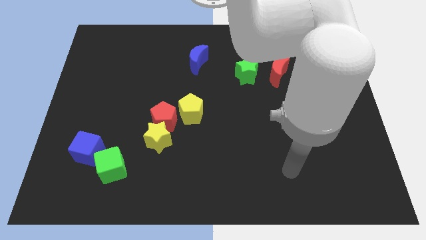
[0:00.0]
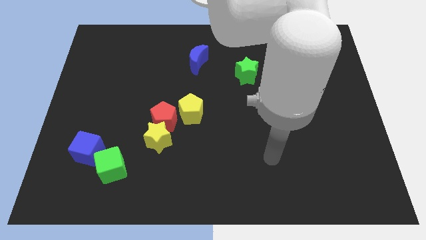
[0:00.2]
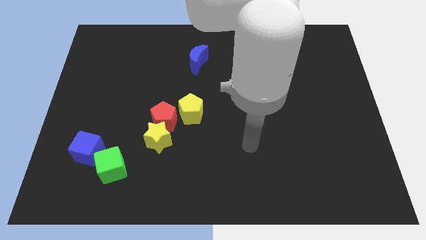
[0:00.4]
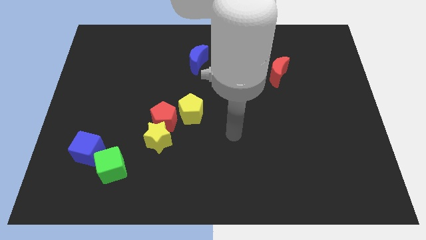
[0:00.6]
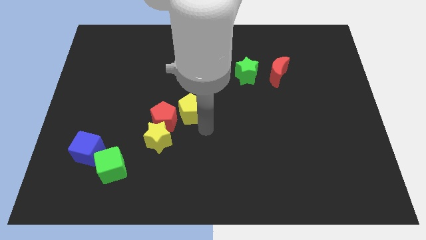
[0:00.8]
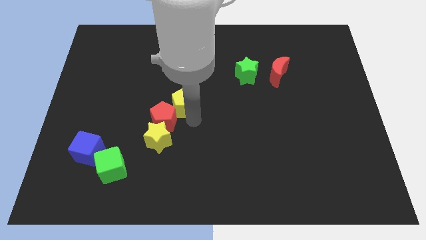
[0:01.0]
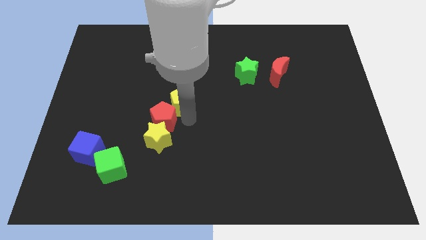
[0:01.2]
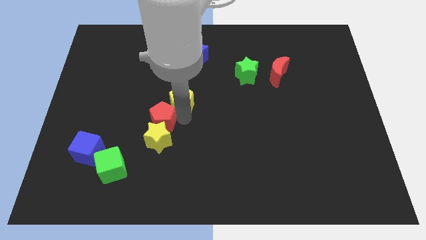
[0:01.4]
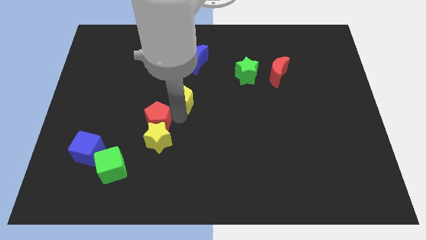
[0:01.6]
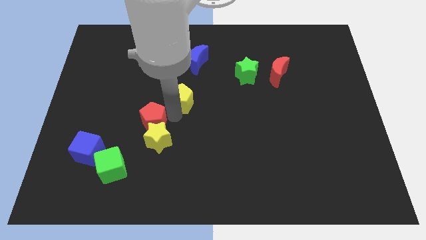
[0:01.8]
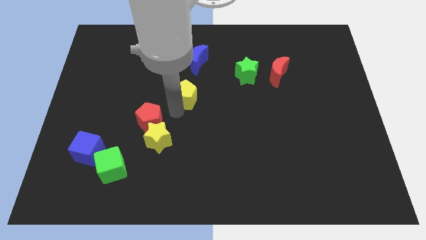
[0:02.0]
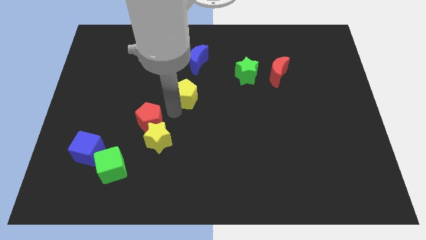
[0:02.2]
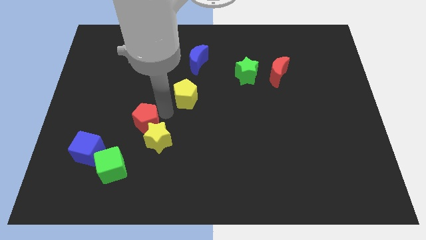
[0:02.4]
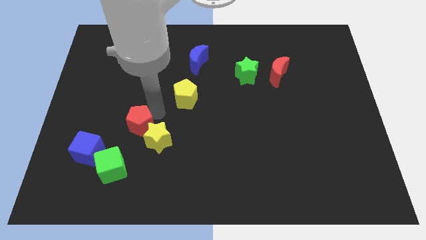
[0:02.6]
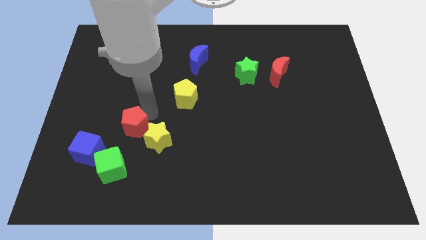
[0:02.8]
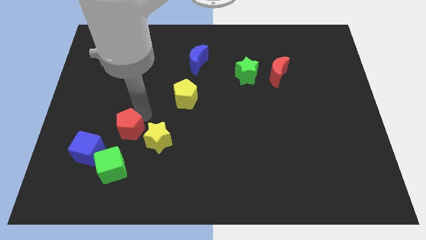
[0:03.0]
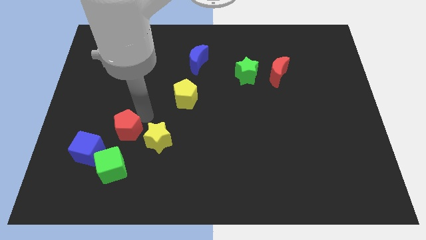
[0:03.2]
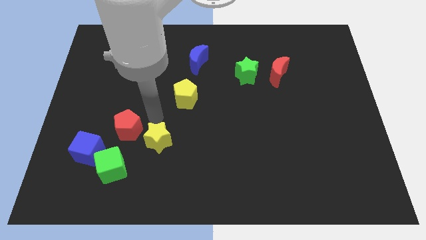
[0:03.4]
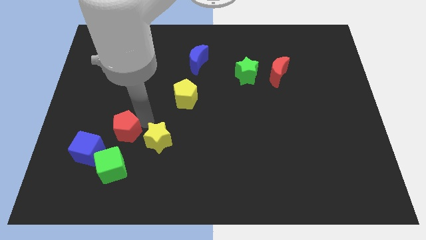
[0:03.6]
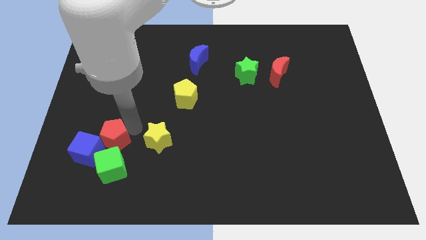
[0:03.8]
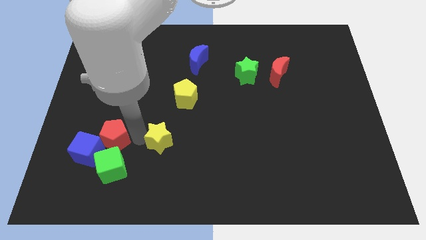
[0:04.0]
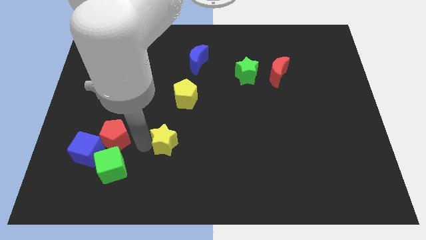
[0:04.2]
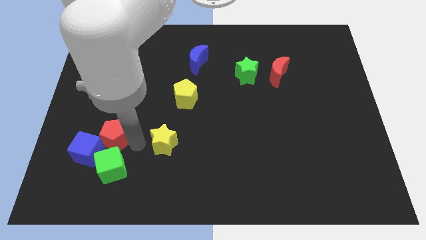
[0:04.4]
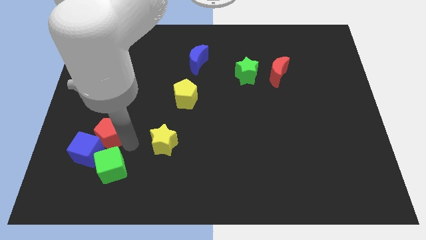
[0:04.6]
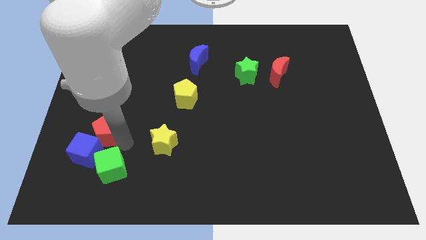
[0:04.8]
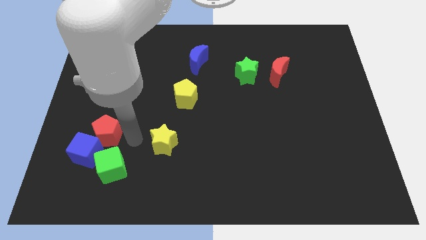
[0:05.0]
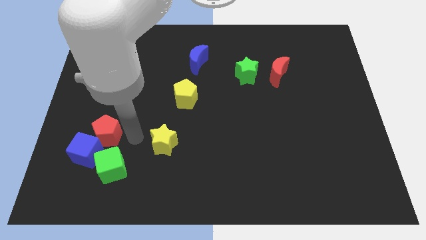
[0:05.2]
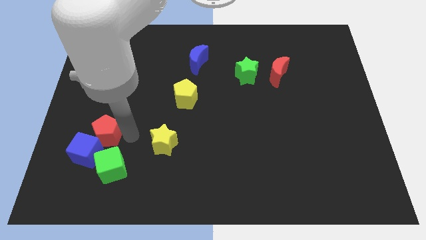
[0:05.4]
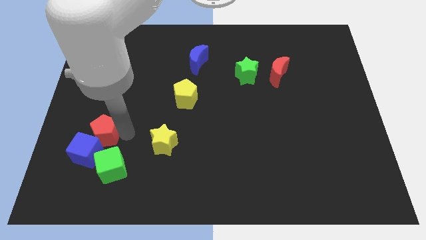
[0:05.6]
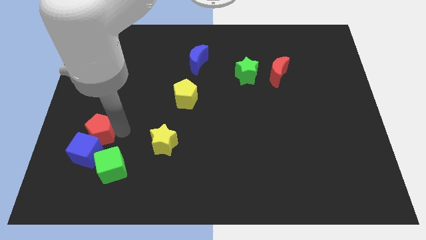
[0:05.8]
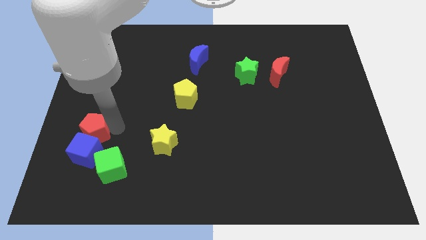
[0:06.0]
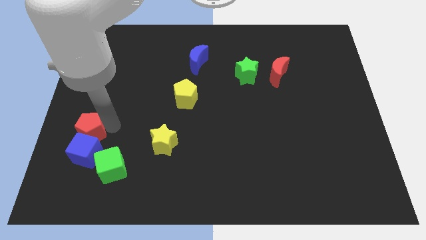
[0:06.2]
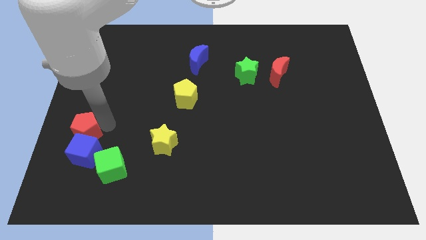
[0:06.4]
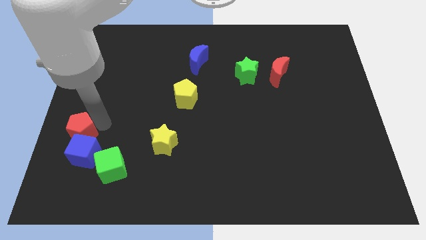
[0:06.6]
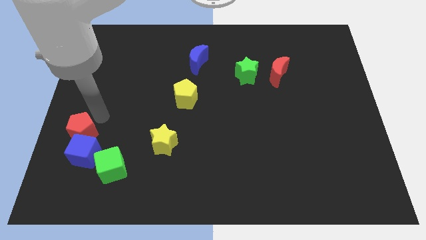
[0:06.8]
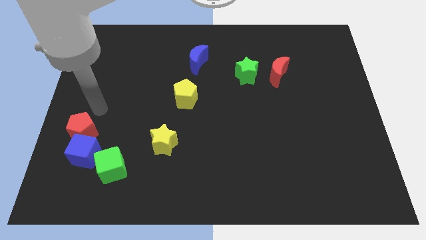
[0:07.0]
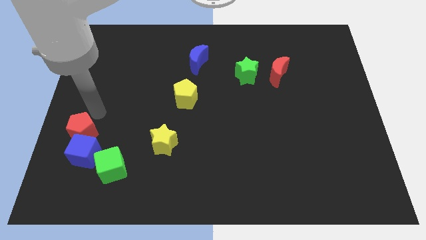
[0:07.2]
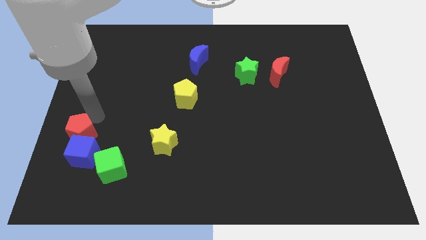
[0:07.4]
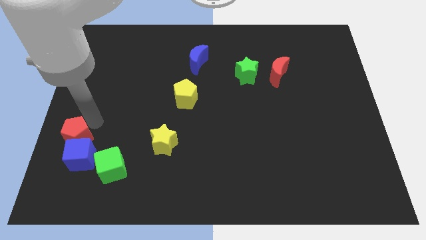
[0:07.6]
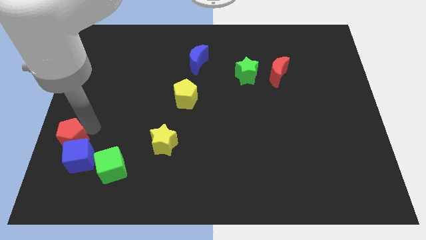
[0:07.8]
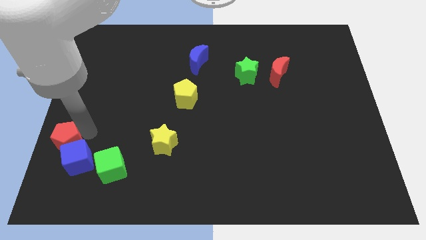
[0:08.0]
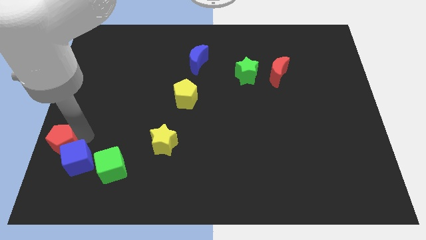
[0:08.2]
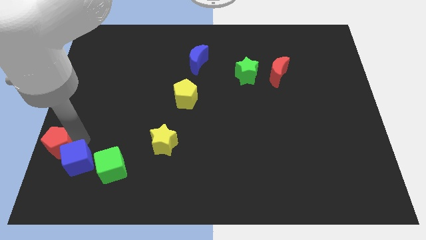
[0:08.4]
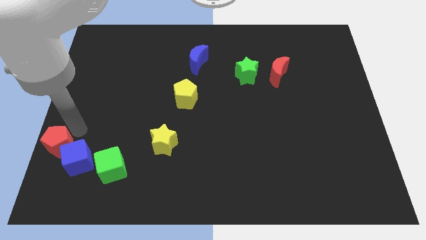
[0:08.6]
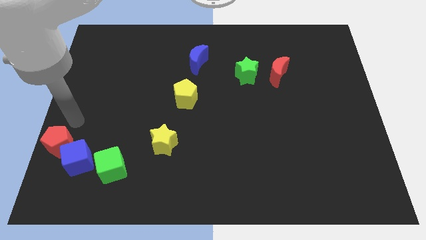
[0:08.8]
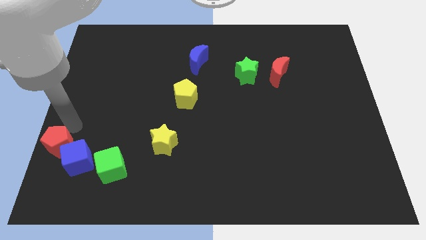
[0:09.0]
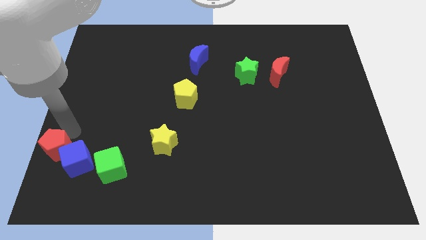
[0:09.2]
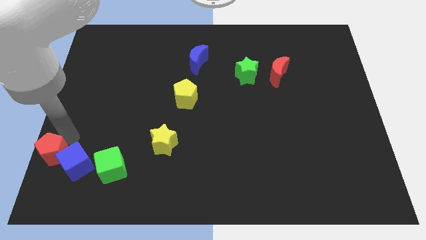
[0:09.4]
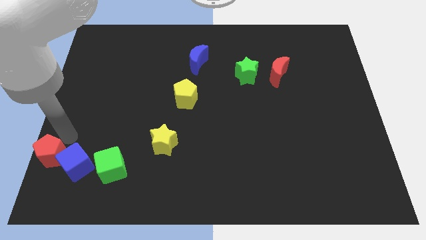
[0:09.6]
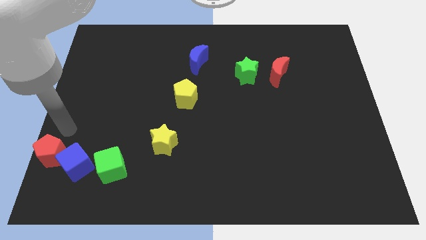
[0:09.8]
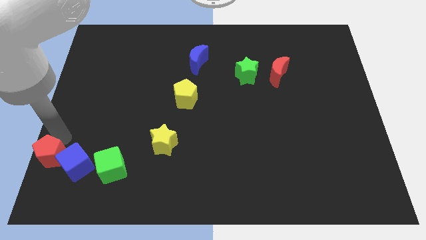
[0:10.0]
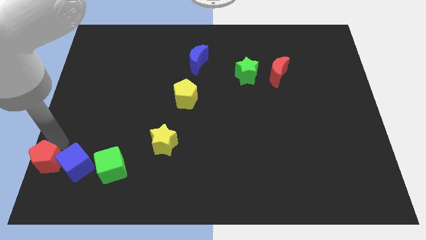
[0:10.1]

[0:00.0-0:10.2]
put the red pentagon to the bottom left

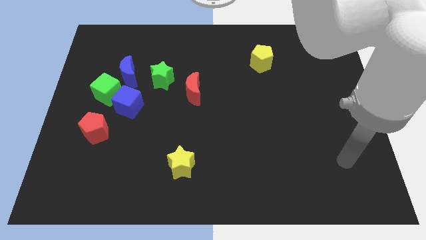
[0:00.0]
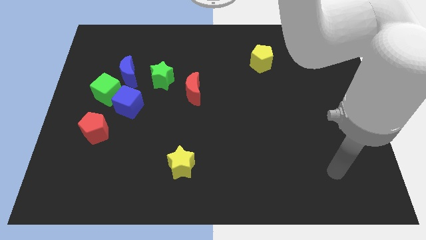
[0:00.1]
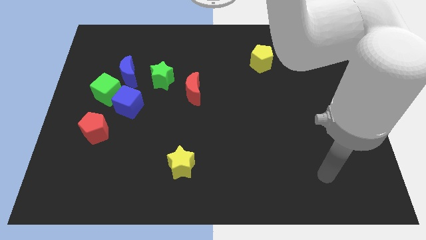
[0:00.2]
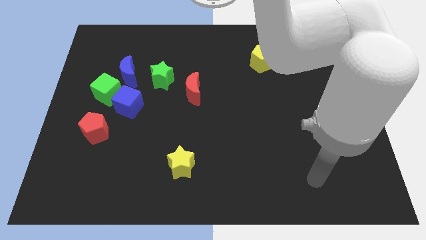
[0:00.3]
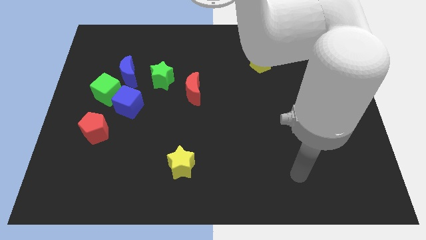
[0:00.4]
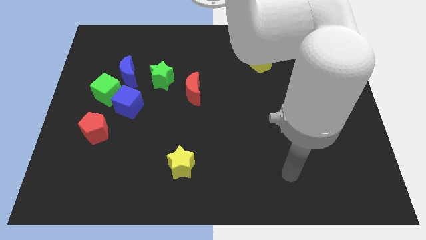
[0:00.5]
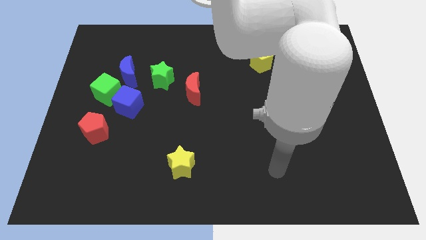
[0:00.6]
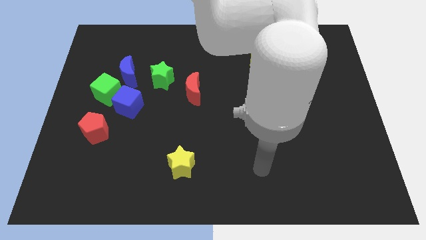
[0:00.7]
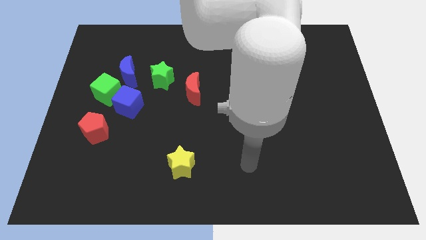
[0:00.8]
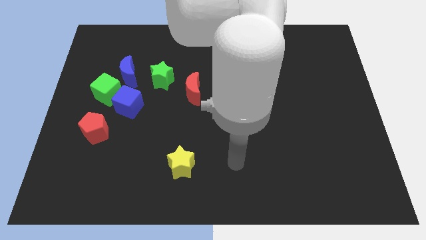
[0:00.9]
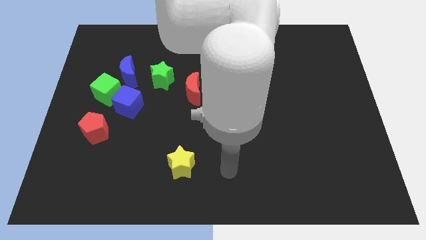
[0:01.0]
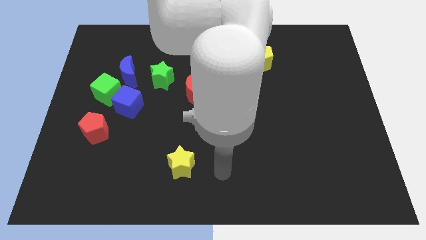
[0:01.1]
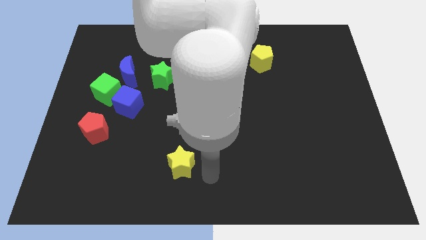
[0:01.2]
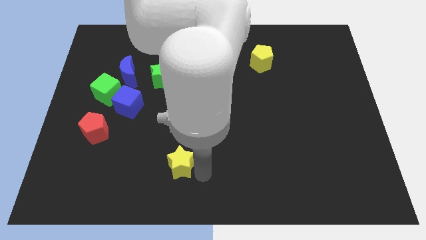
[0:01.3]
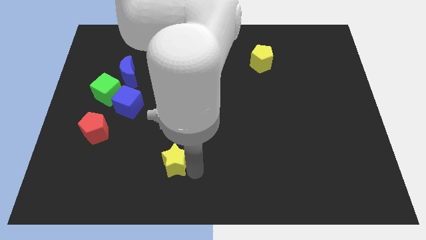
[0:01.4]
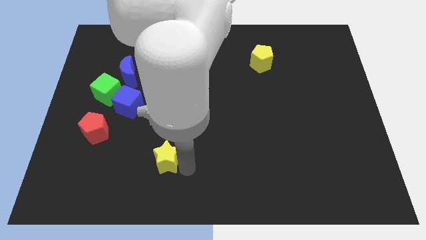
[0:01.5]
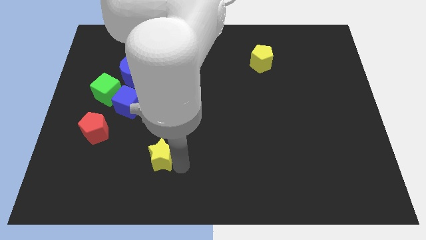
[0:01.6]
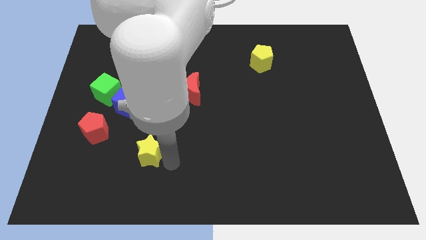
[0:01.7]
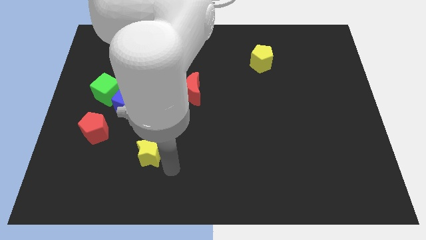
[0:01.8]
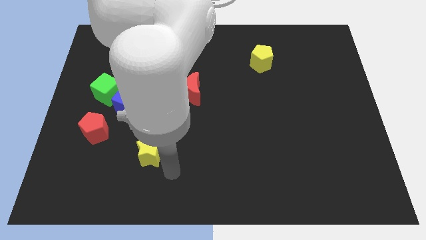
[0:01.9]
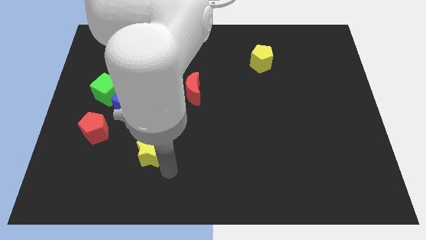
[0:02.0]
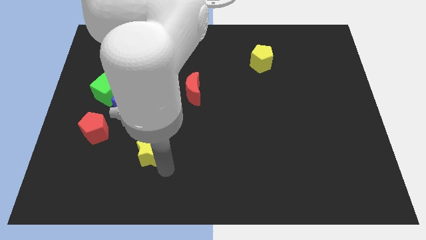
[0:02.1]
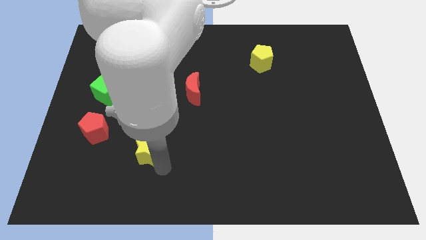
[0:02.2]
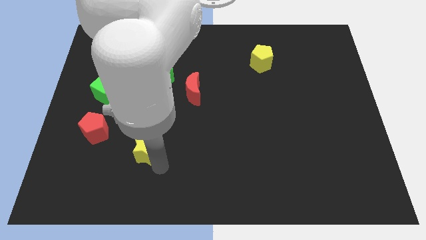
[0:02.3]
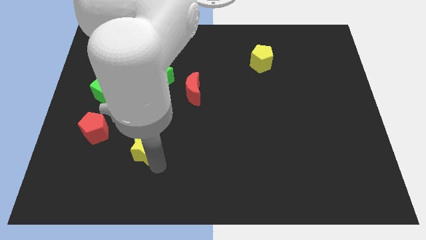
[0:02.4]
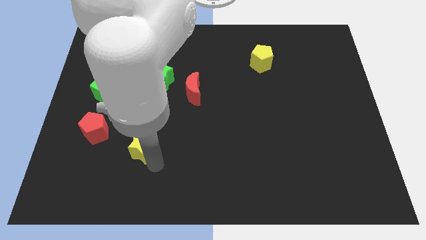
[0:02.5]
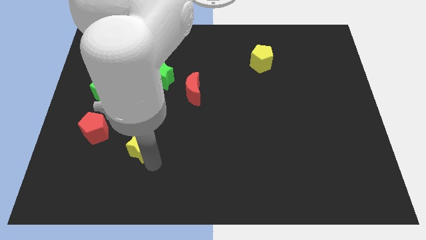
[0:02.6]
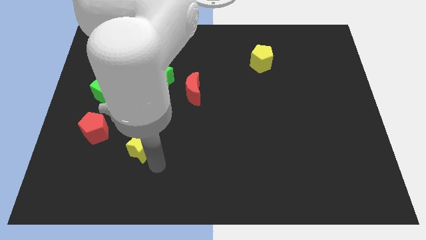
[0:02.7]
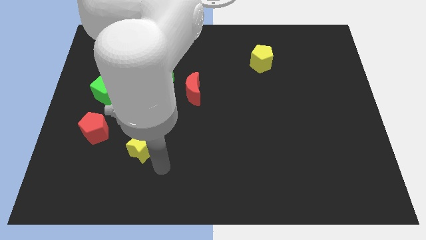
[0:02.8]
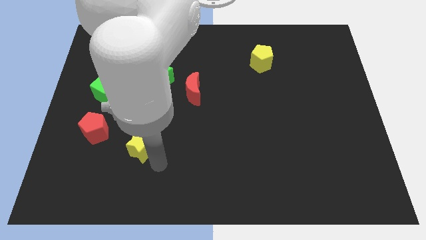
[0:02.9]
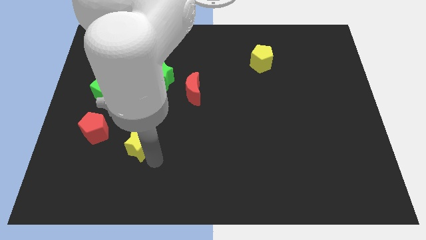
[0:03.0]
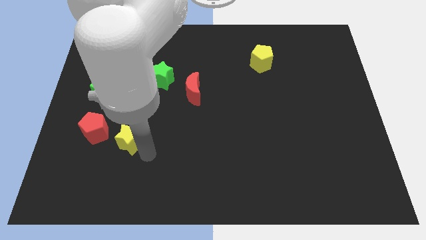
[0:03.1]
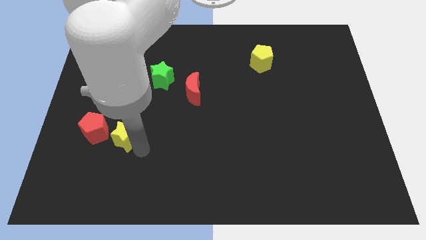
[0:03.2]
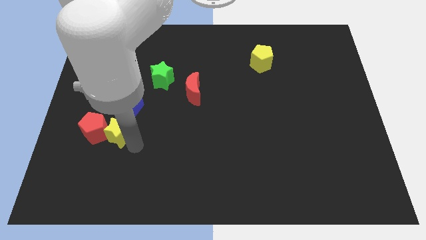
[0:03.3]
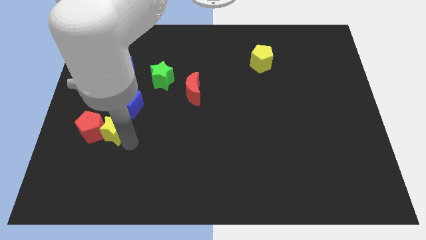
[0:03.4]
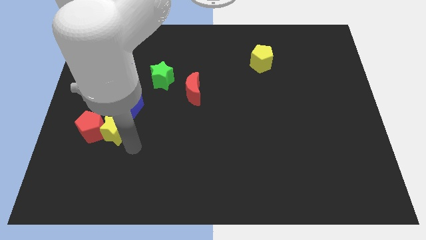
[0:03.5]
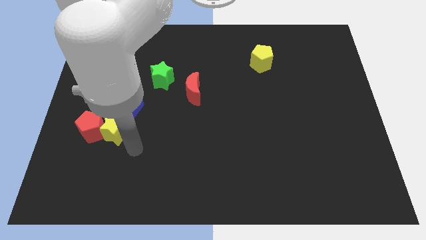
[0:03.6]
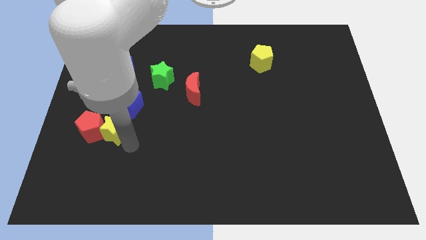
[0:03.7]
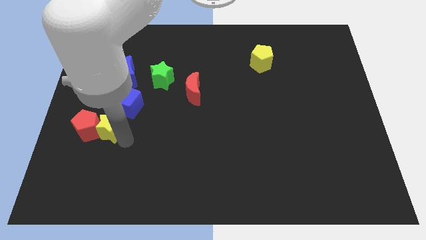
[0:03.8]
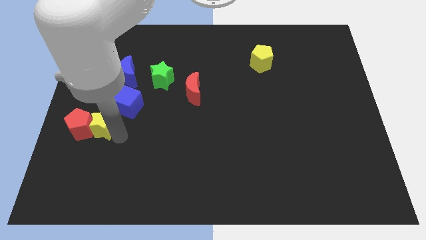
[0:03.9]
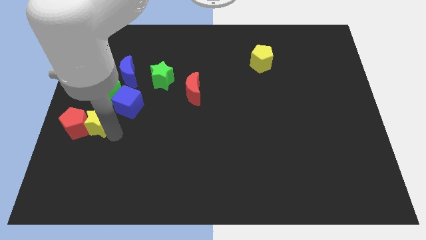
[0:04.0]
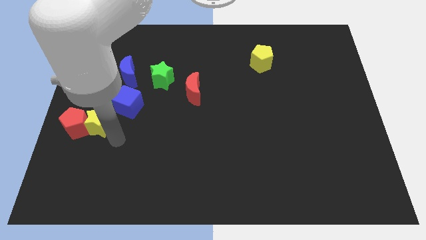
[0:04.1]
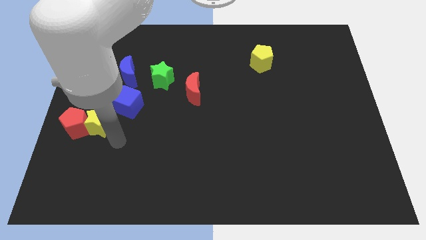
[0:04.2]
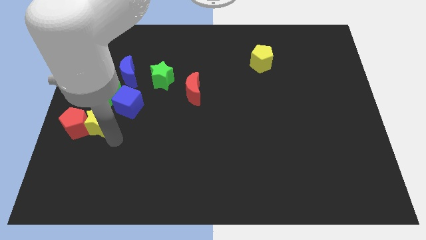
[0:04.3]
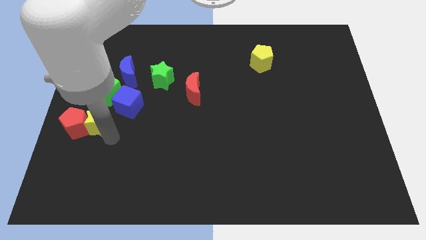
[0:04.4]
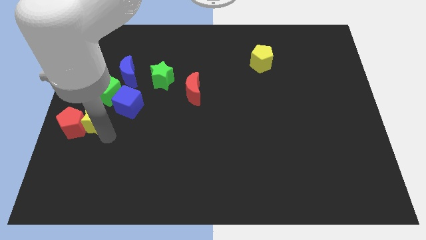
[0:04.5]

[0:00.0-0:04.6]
move the yellow star to the left side
